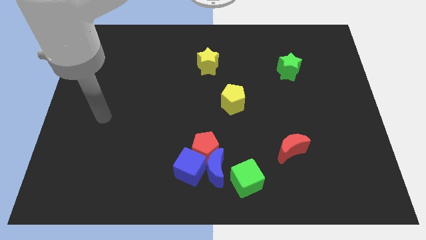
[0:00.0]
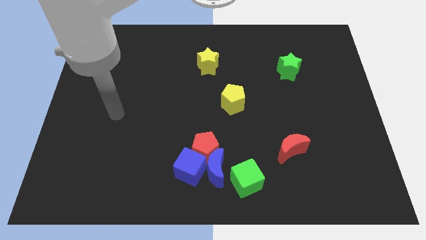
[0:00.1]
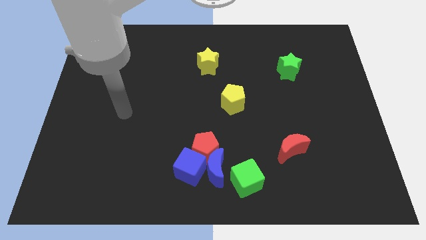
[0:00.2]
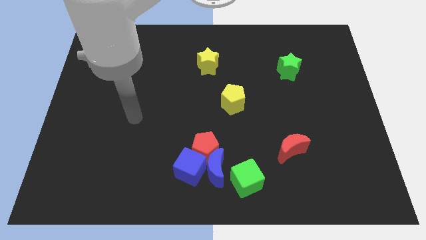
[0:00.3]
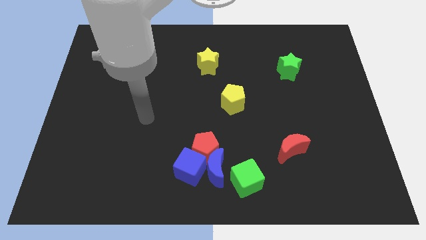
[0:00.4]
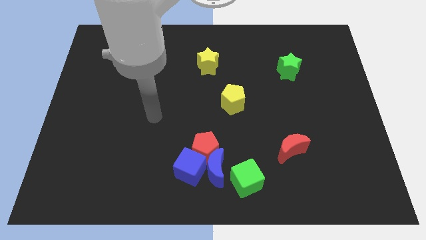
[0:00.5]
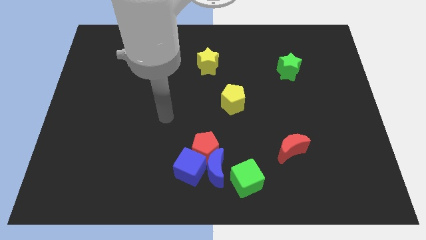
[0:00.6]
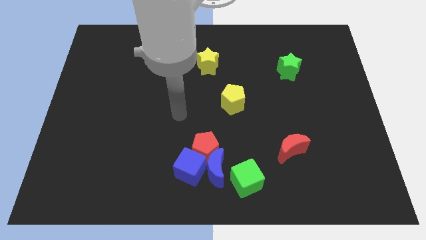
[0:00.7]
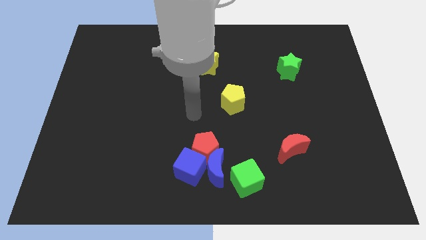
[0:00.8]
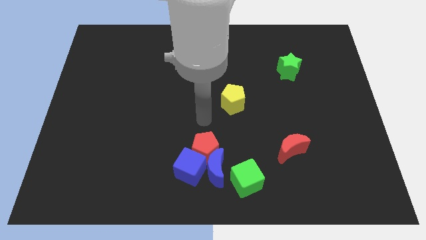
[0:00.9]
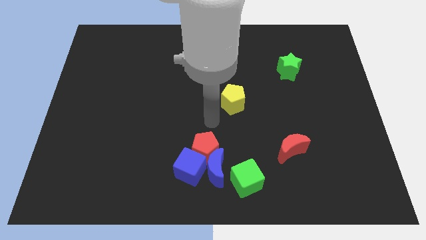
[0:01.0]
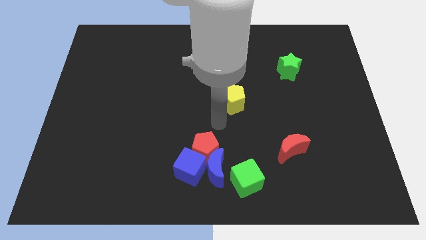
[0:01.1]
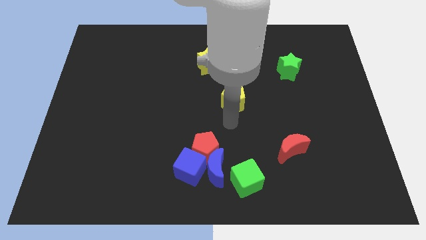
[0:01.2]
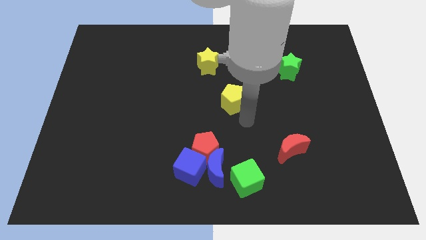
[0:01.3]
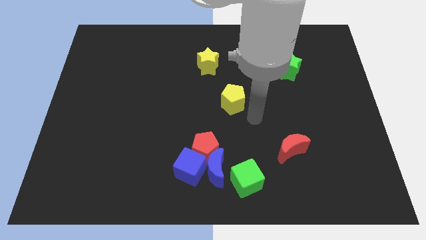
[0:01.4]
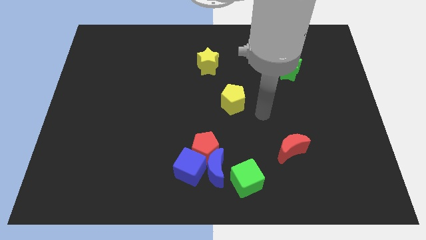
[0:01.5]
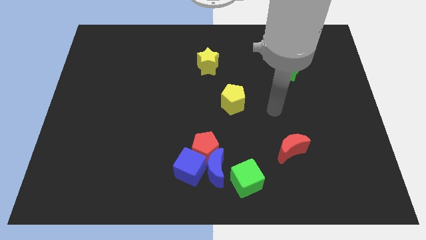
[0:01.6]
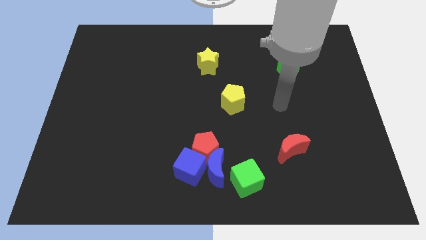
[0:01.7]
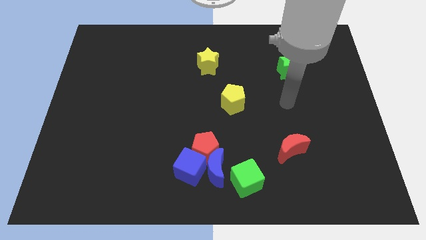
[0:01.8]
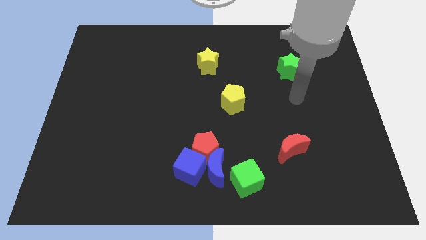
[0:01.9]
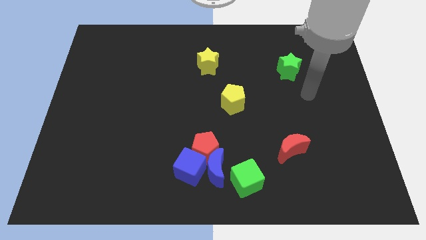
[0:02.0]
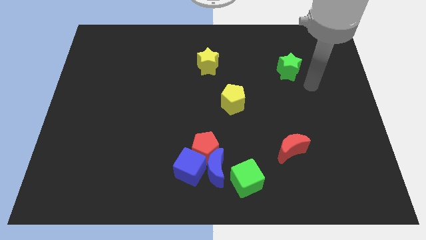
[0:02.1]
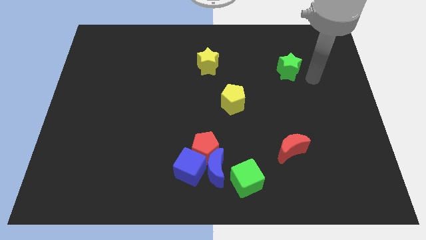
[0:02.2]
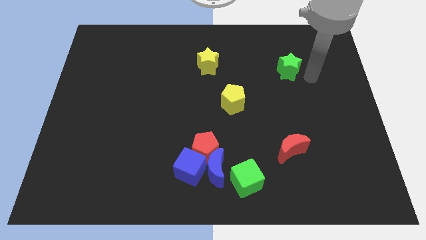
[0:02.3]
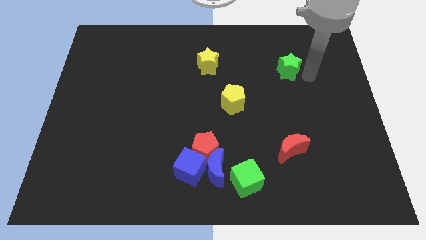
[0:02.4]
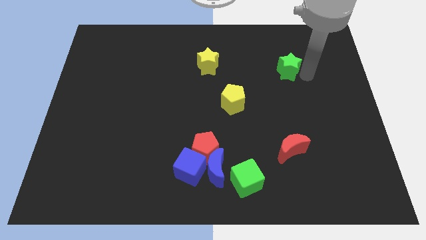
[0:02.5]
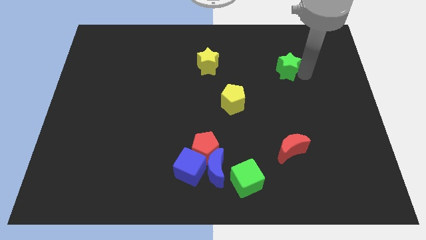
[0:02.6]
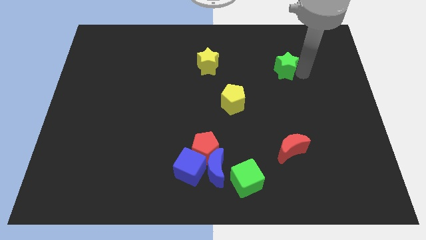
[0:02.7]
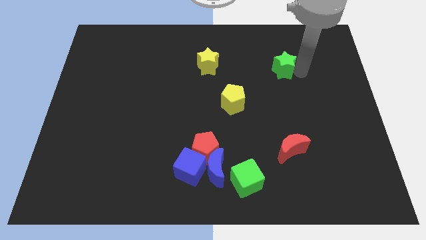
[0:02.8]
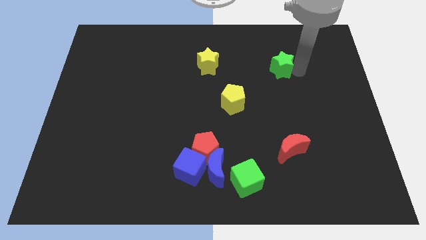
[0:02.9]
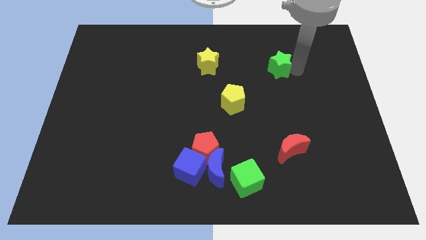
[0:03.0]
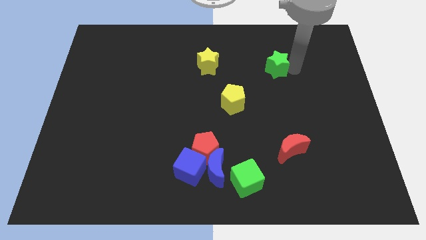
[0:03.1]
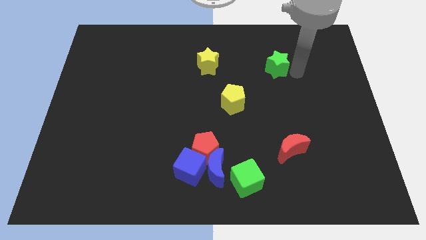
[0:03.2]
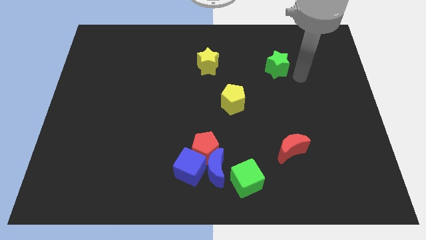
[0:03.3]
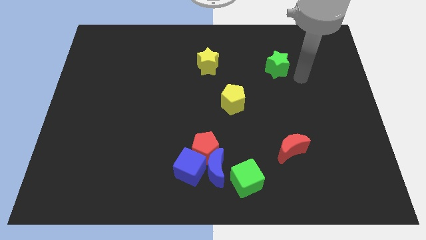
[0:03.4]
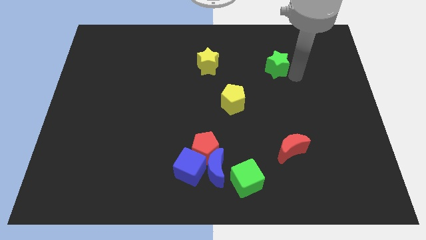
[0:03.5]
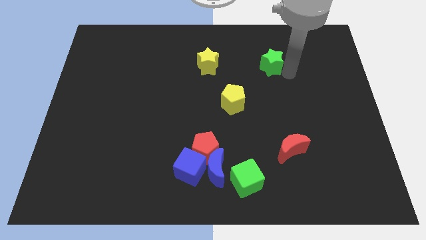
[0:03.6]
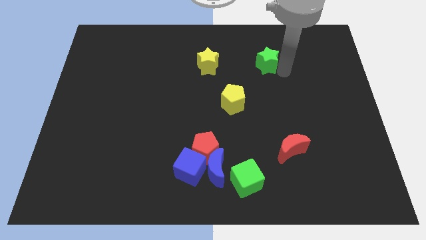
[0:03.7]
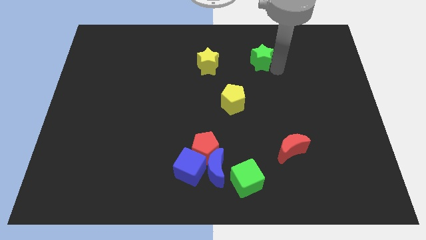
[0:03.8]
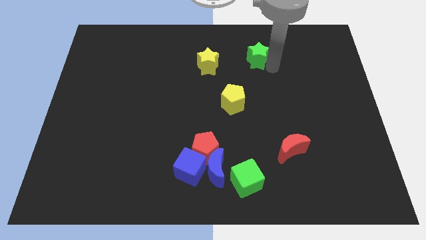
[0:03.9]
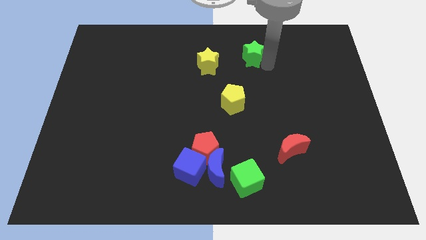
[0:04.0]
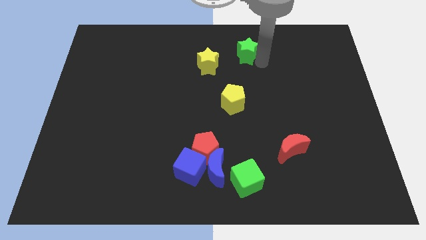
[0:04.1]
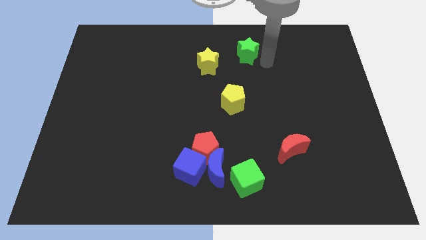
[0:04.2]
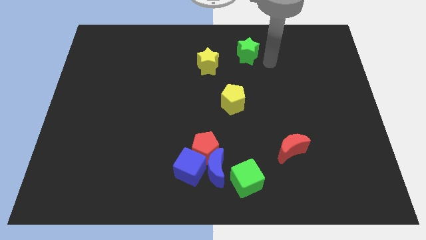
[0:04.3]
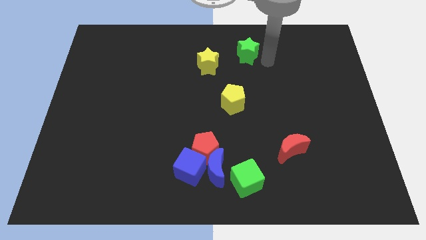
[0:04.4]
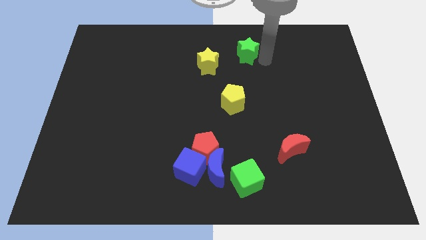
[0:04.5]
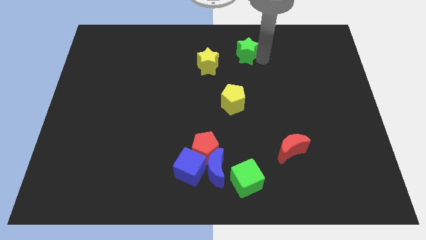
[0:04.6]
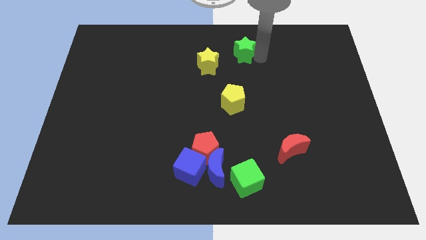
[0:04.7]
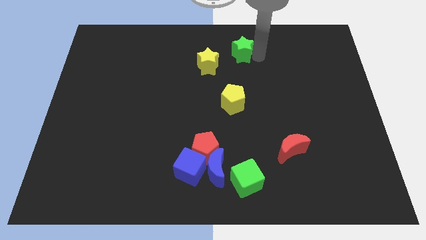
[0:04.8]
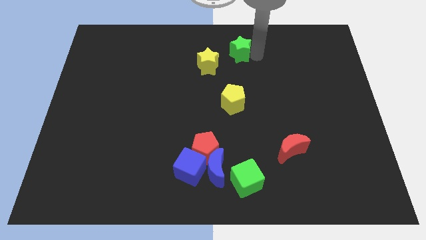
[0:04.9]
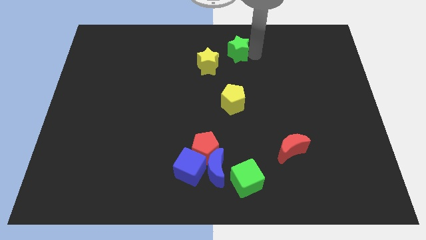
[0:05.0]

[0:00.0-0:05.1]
slide the green star to the top

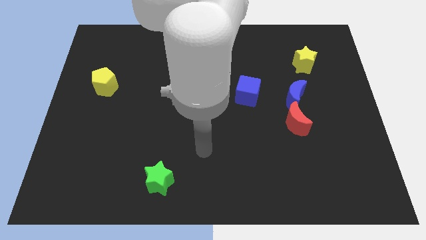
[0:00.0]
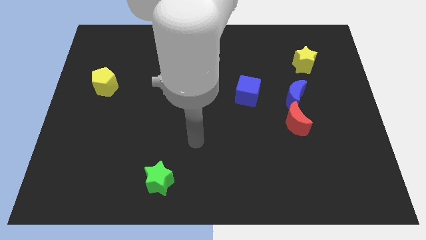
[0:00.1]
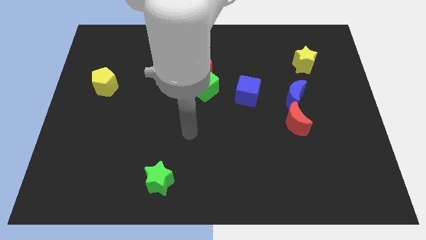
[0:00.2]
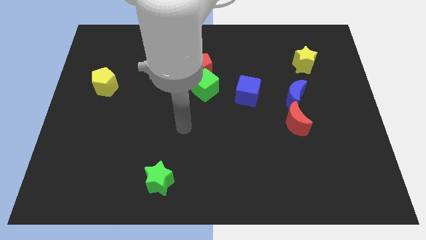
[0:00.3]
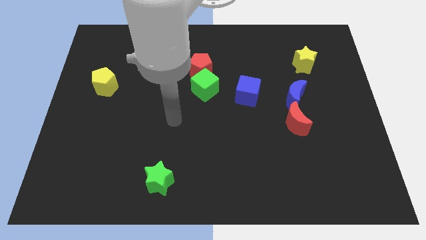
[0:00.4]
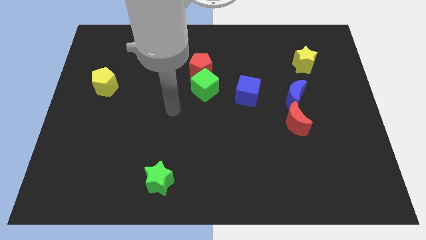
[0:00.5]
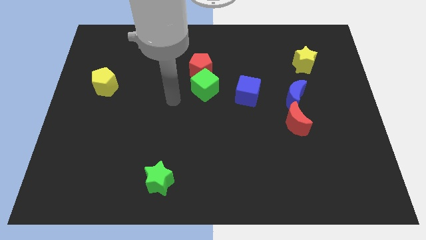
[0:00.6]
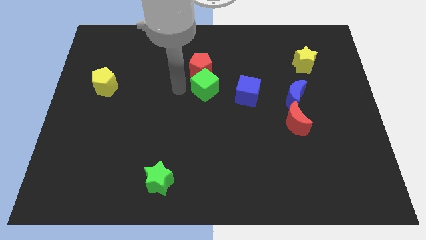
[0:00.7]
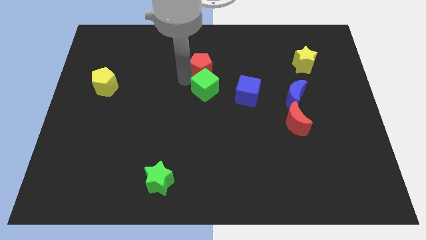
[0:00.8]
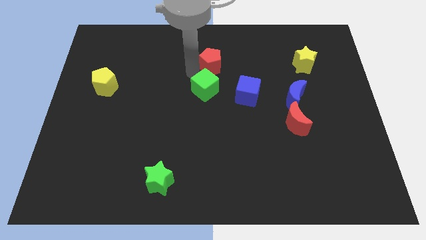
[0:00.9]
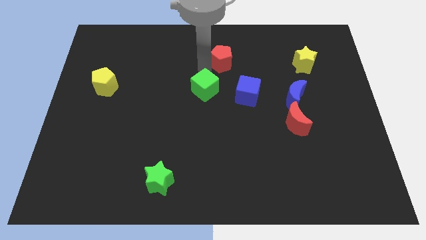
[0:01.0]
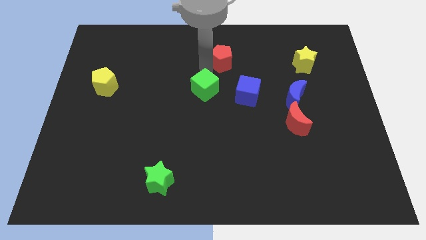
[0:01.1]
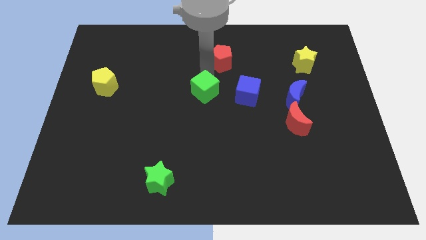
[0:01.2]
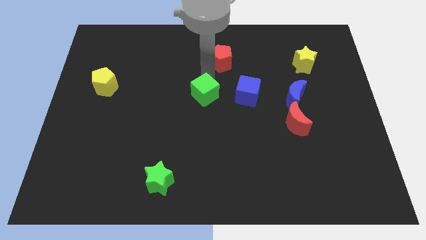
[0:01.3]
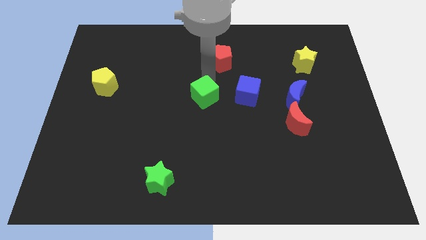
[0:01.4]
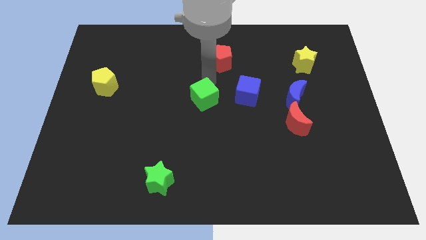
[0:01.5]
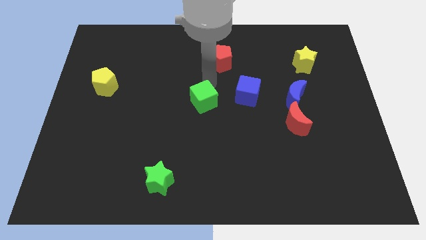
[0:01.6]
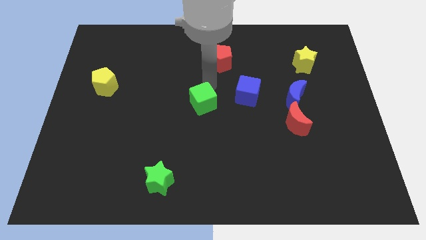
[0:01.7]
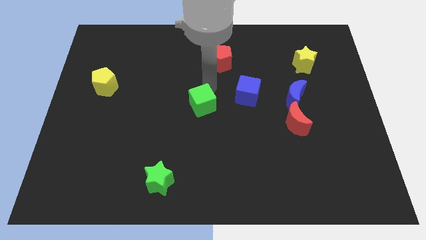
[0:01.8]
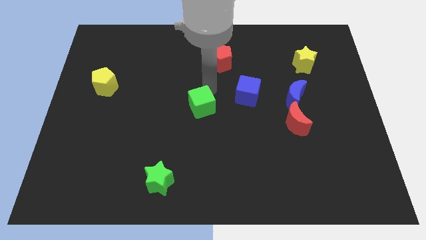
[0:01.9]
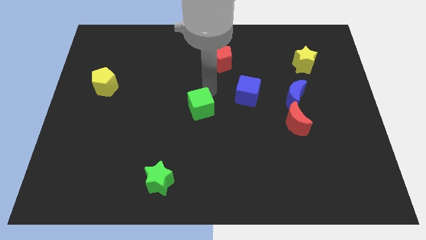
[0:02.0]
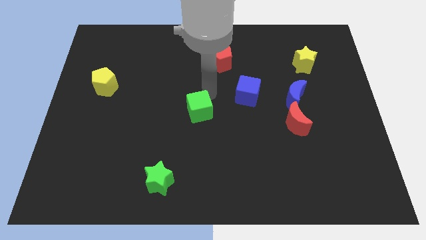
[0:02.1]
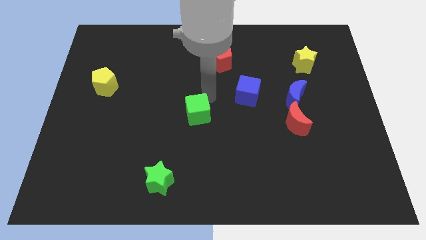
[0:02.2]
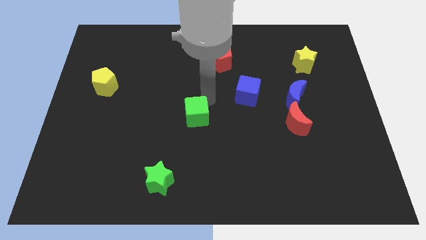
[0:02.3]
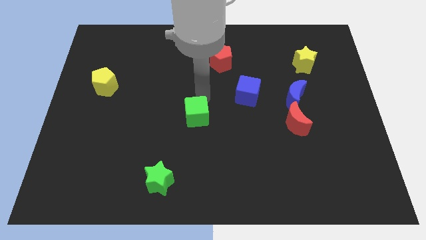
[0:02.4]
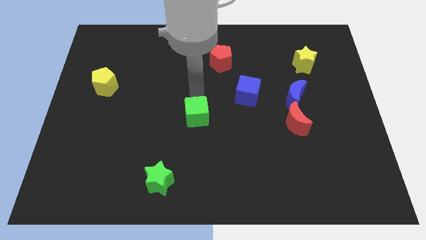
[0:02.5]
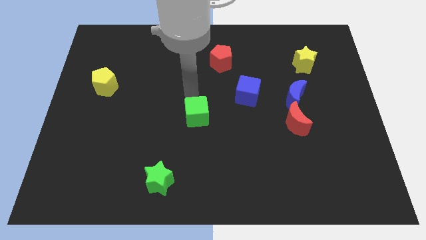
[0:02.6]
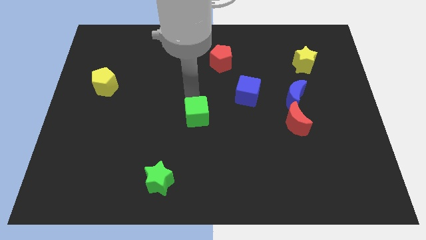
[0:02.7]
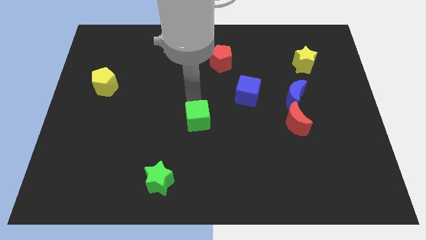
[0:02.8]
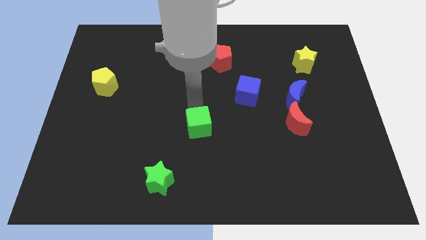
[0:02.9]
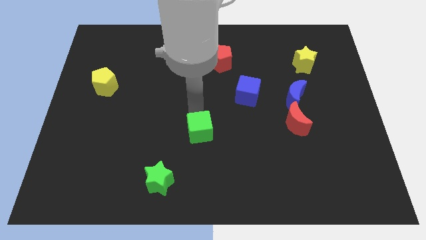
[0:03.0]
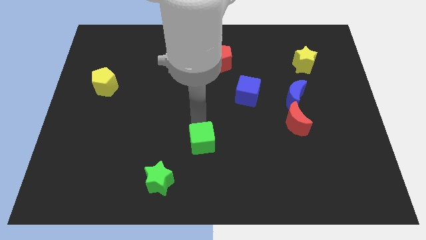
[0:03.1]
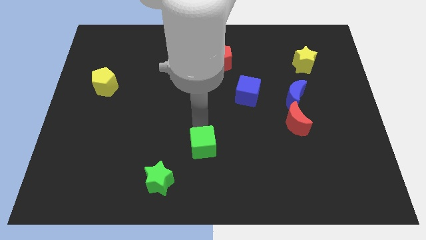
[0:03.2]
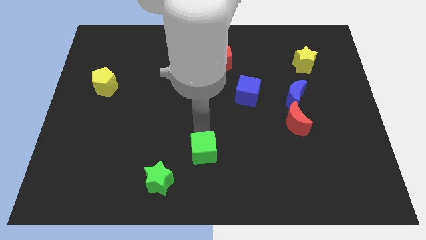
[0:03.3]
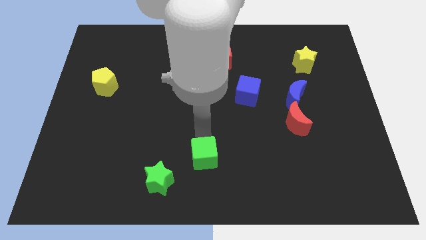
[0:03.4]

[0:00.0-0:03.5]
push the green cube to the bottom side
